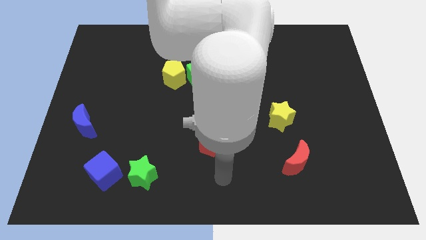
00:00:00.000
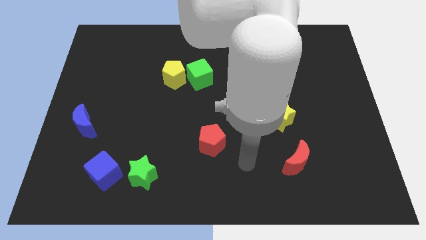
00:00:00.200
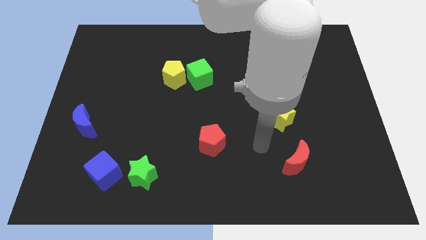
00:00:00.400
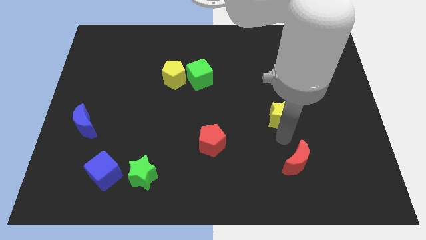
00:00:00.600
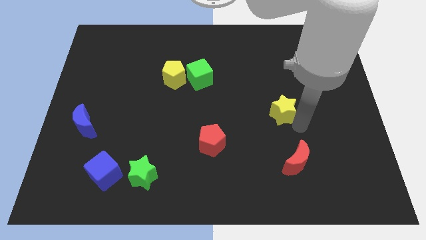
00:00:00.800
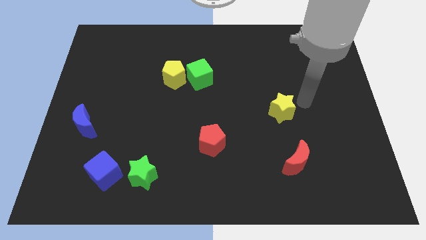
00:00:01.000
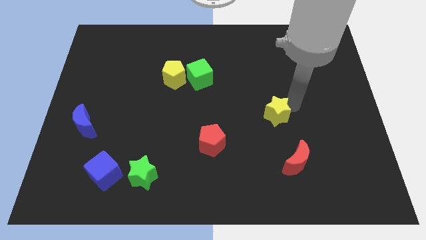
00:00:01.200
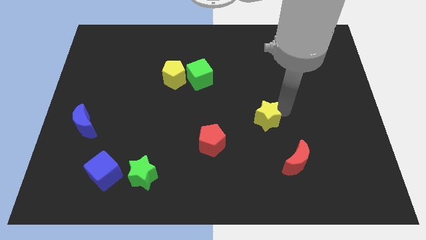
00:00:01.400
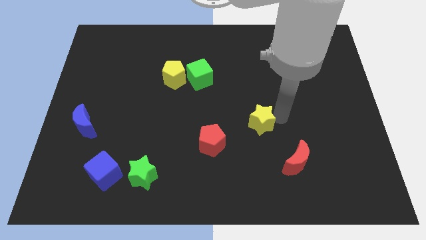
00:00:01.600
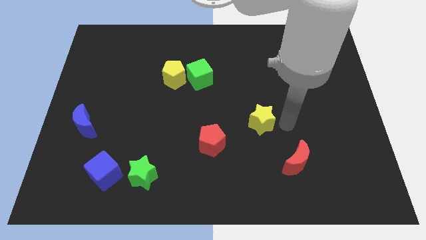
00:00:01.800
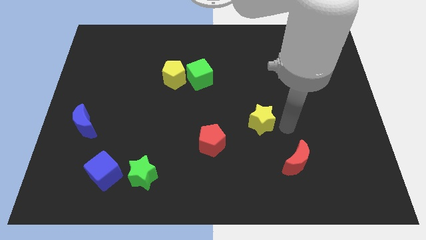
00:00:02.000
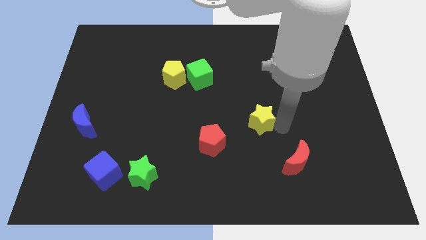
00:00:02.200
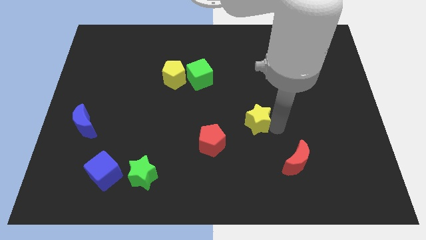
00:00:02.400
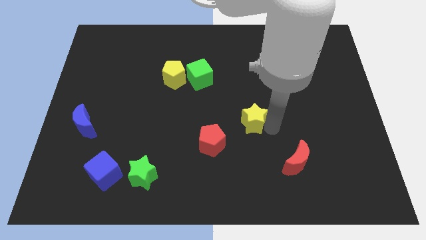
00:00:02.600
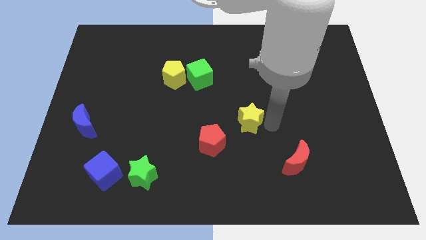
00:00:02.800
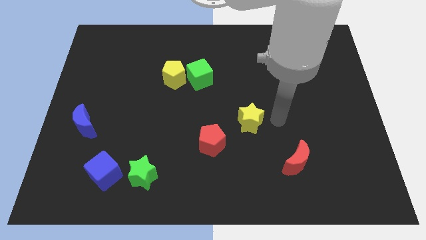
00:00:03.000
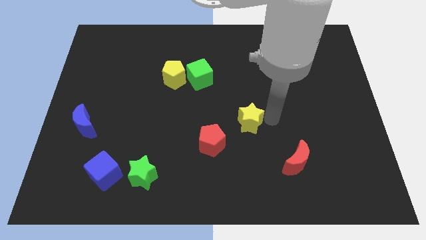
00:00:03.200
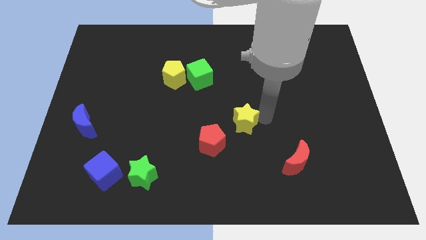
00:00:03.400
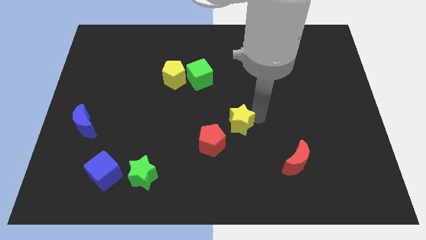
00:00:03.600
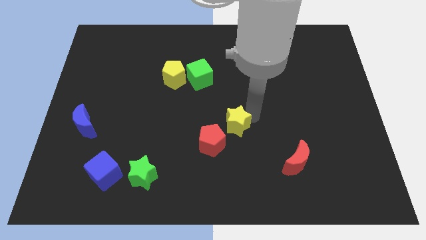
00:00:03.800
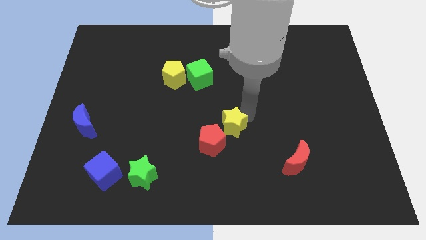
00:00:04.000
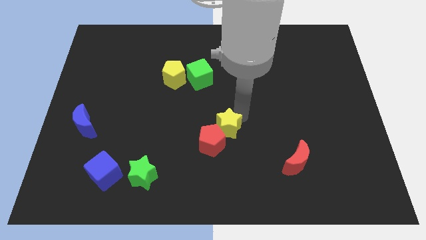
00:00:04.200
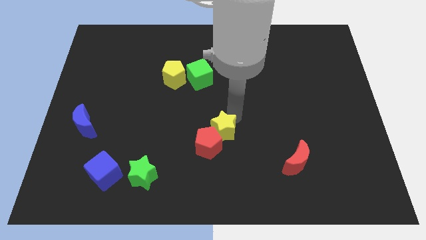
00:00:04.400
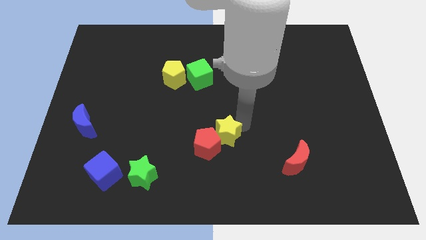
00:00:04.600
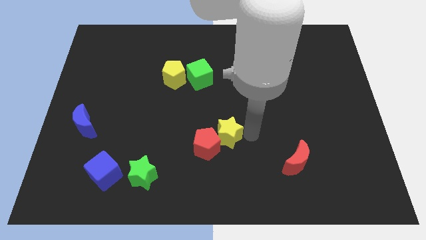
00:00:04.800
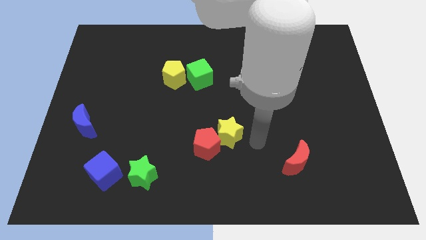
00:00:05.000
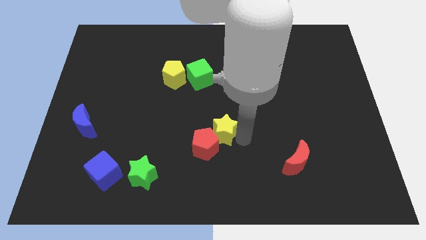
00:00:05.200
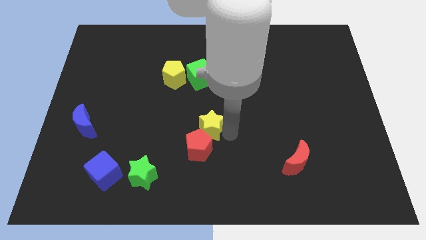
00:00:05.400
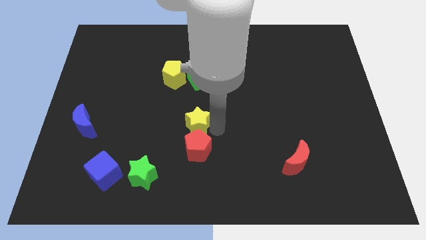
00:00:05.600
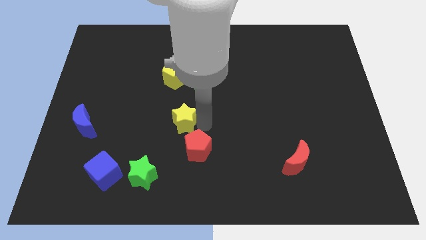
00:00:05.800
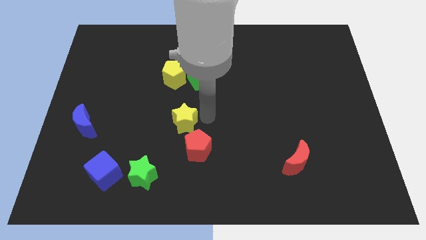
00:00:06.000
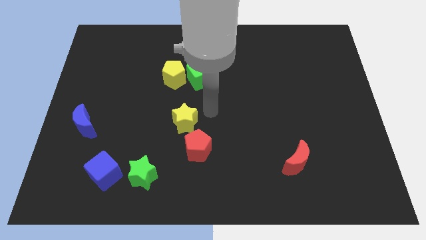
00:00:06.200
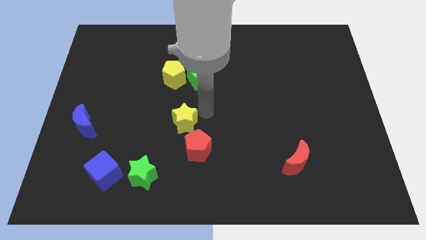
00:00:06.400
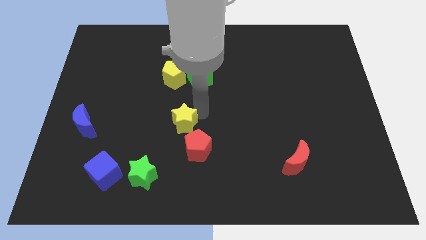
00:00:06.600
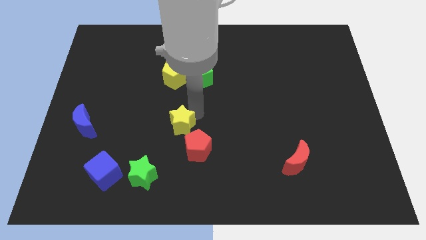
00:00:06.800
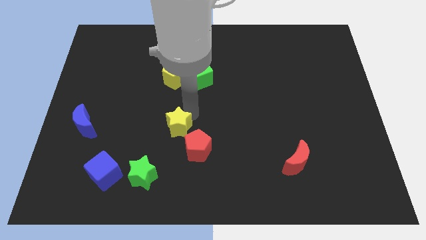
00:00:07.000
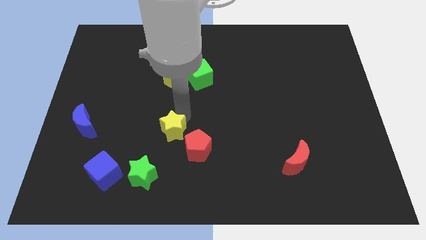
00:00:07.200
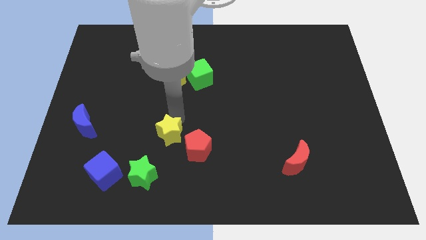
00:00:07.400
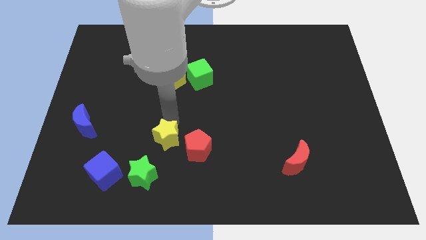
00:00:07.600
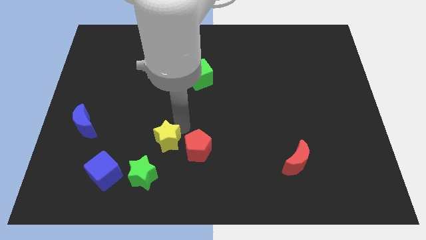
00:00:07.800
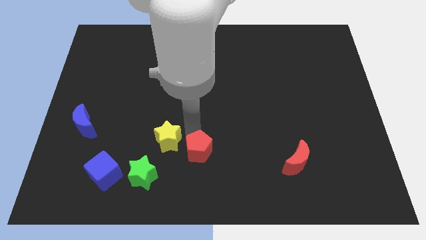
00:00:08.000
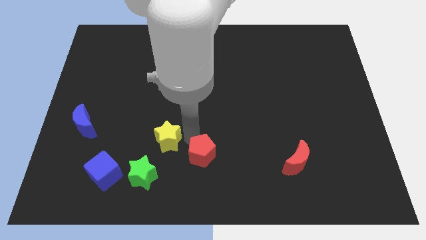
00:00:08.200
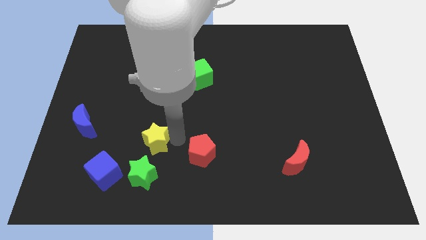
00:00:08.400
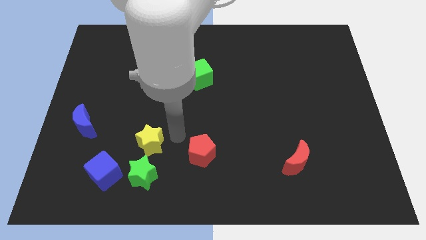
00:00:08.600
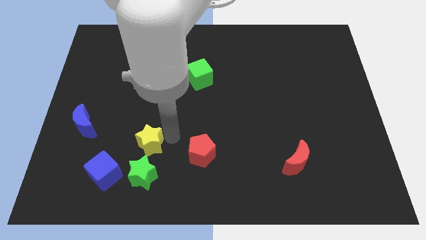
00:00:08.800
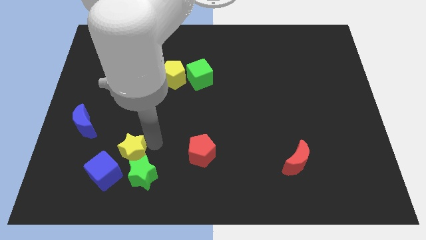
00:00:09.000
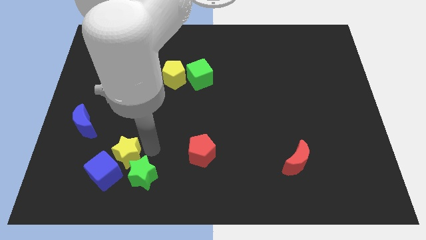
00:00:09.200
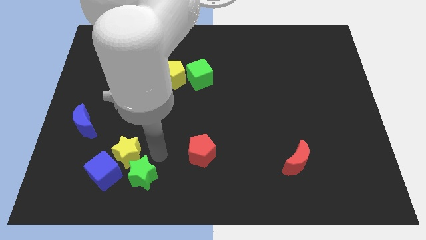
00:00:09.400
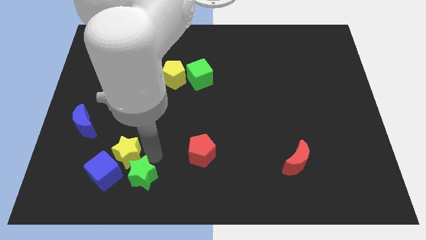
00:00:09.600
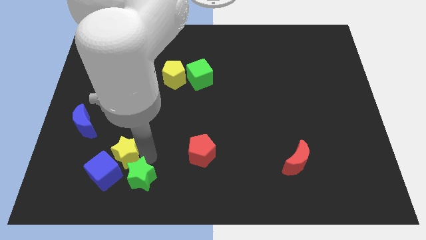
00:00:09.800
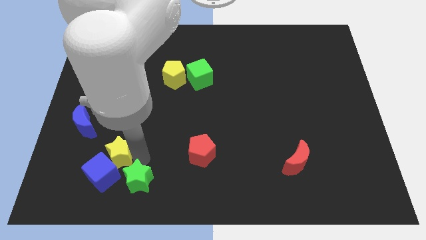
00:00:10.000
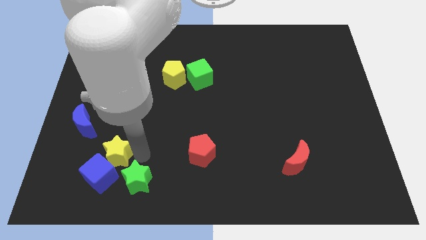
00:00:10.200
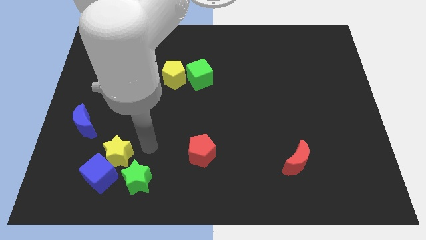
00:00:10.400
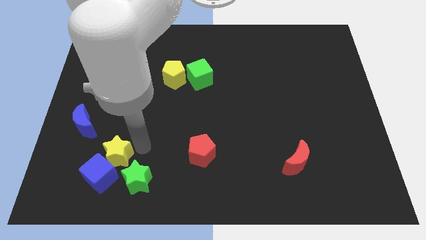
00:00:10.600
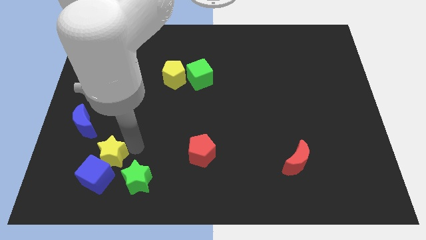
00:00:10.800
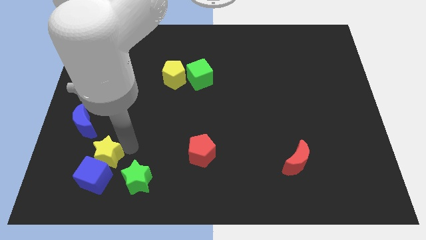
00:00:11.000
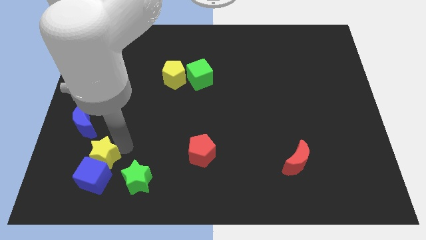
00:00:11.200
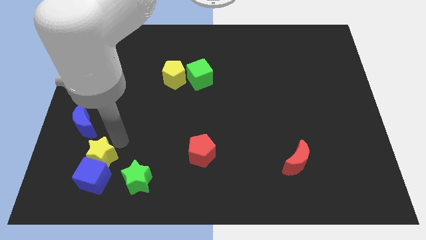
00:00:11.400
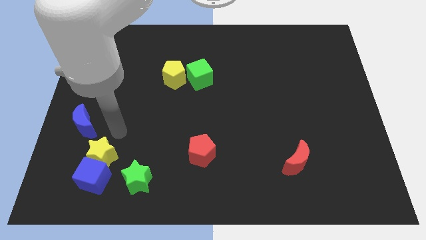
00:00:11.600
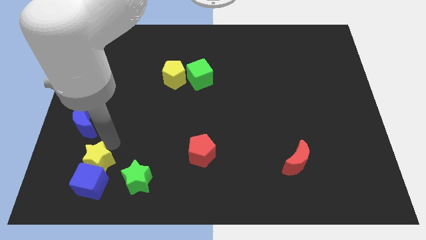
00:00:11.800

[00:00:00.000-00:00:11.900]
push the yellow star to the left side of the green star
